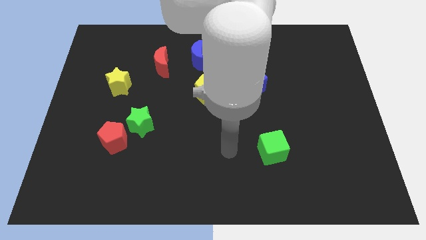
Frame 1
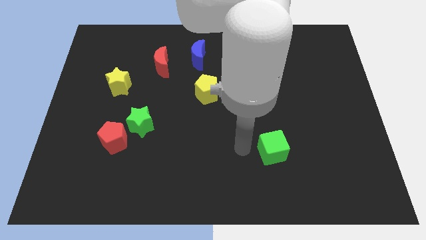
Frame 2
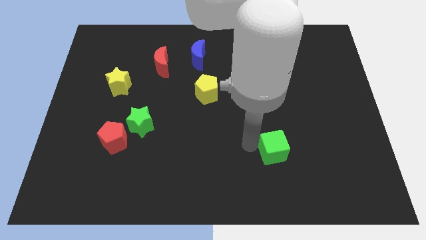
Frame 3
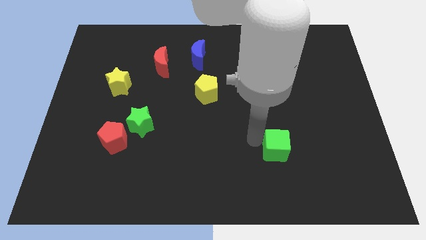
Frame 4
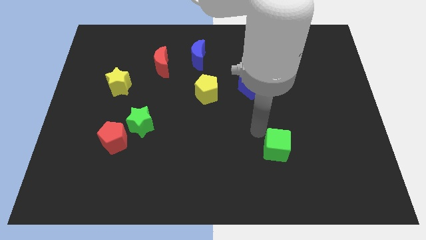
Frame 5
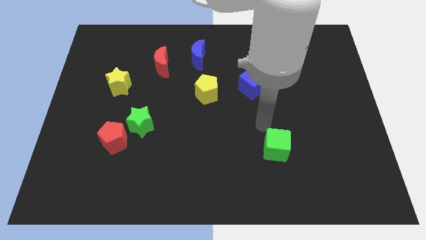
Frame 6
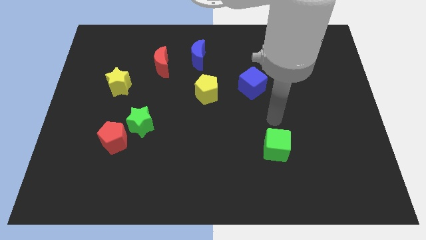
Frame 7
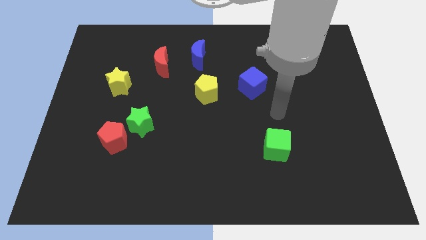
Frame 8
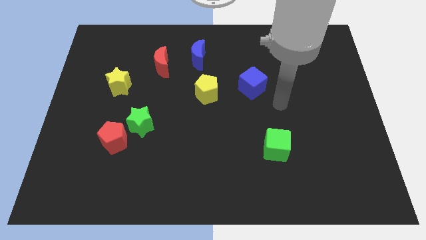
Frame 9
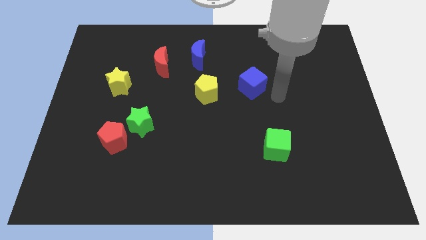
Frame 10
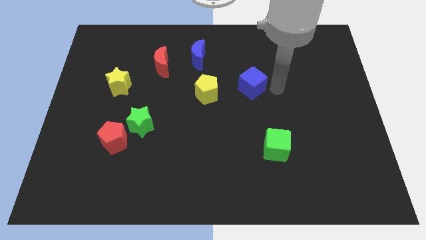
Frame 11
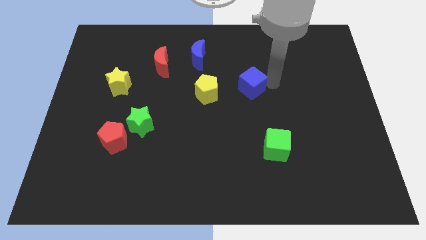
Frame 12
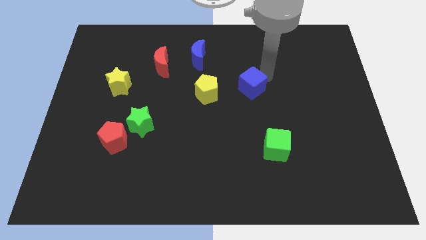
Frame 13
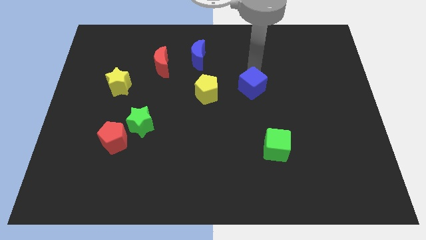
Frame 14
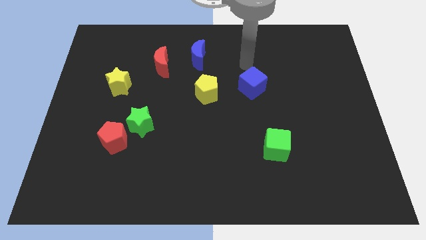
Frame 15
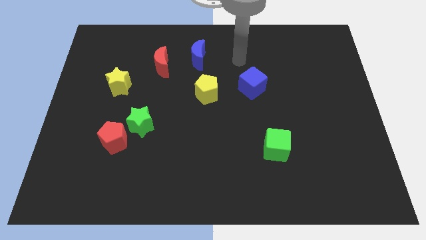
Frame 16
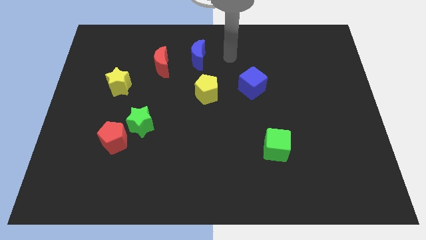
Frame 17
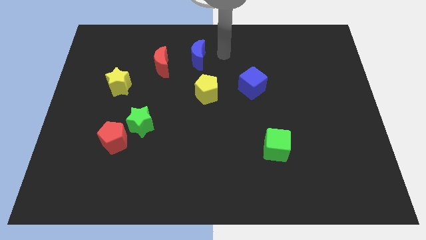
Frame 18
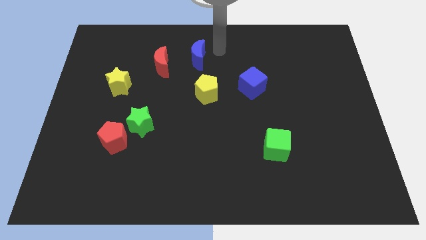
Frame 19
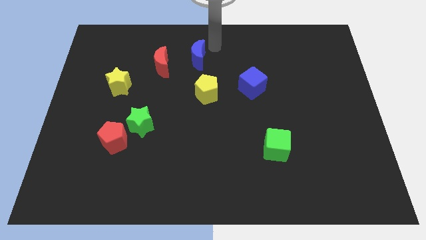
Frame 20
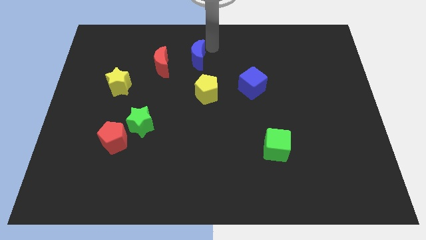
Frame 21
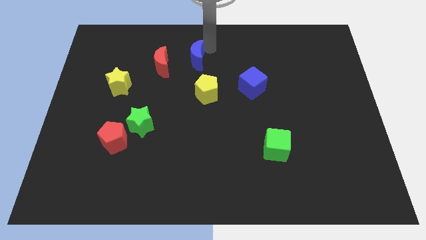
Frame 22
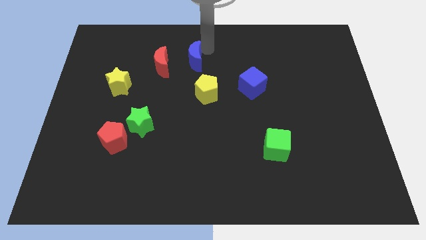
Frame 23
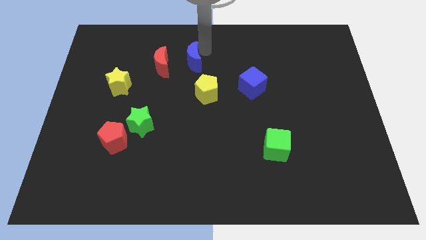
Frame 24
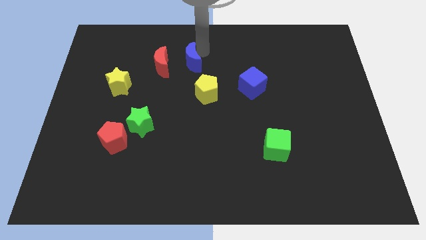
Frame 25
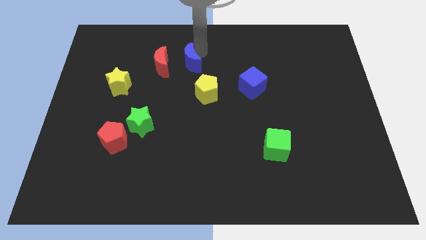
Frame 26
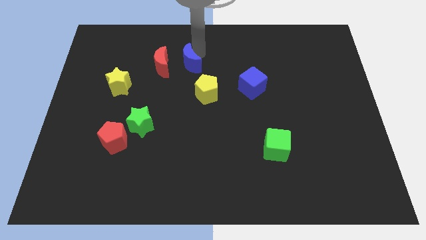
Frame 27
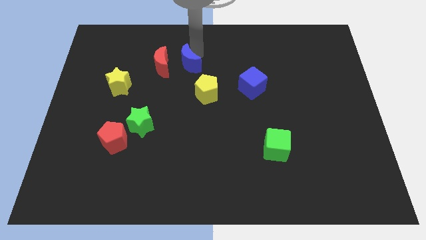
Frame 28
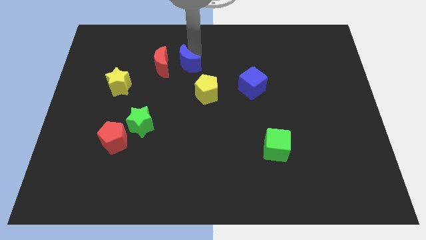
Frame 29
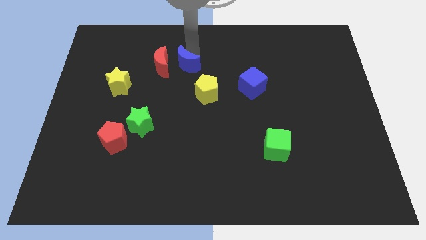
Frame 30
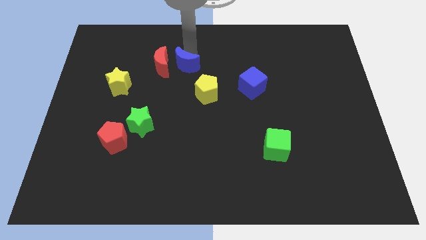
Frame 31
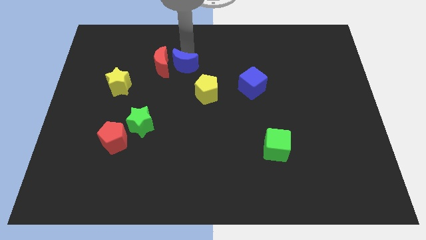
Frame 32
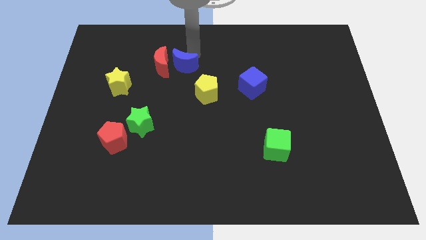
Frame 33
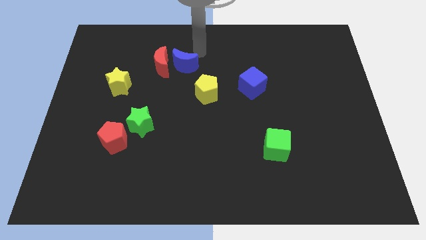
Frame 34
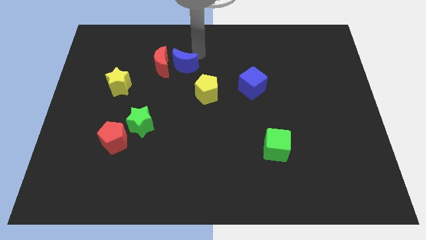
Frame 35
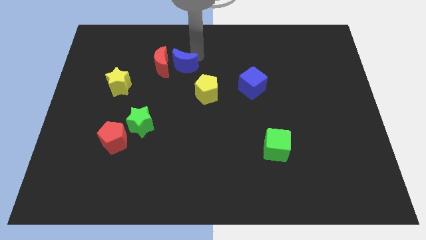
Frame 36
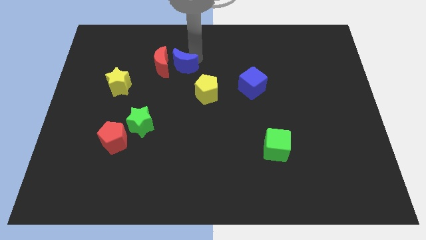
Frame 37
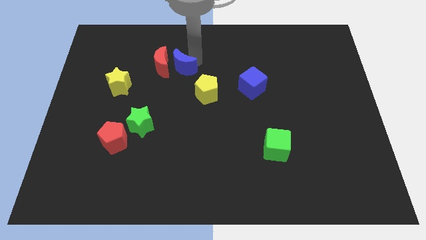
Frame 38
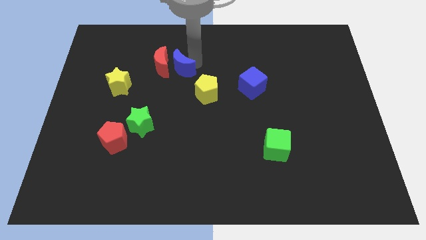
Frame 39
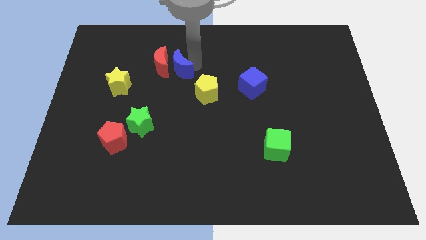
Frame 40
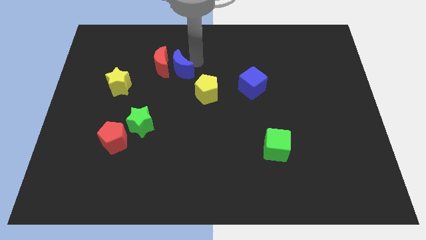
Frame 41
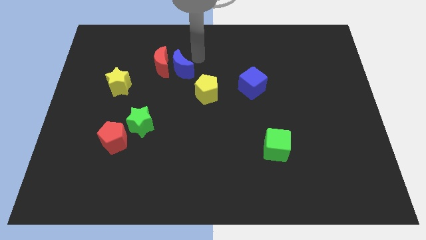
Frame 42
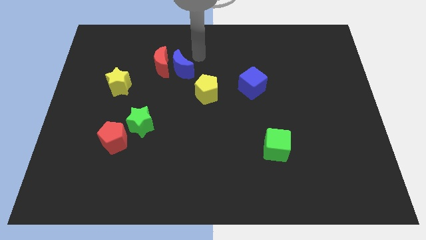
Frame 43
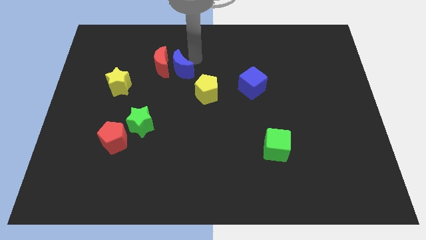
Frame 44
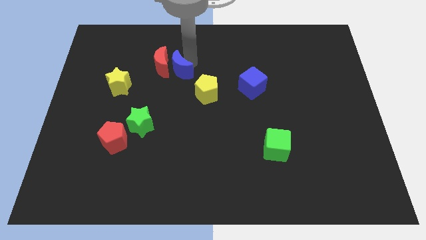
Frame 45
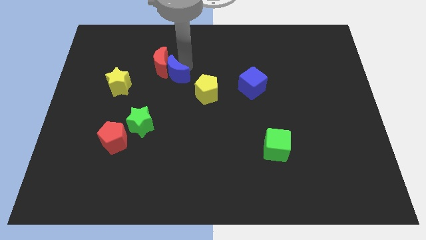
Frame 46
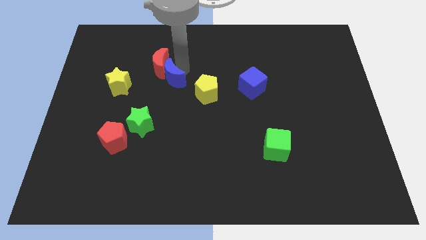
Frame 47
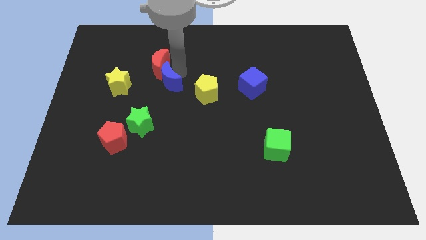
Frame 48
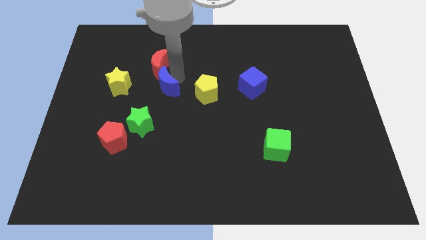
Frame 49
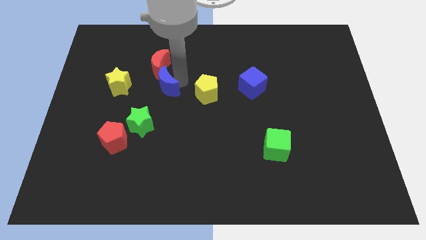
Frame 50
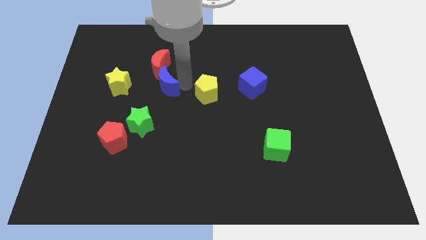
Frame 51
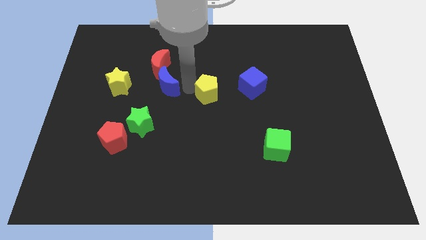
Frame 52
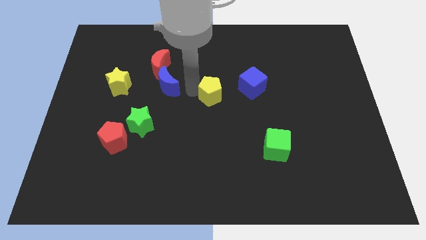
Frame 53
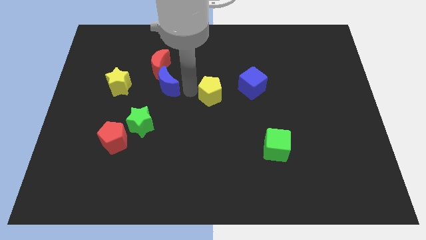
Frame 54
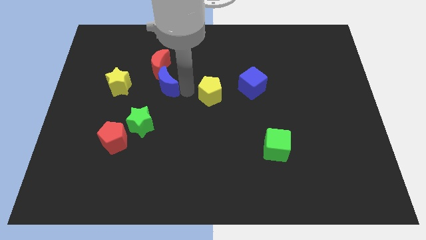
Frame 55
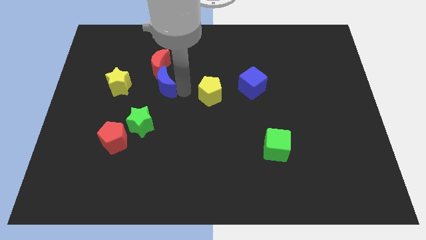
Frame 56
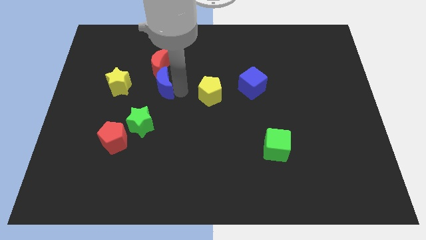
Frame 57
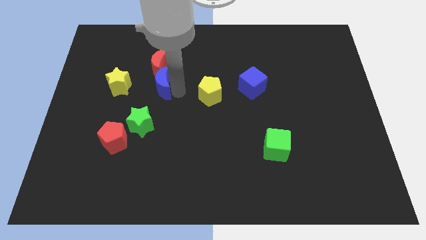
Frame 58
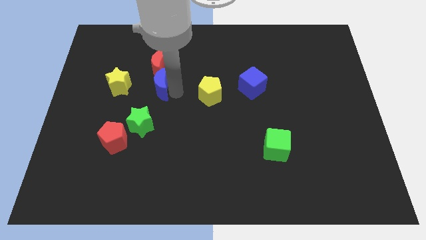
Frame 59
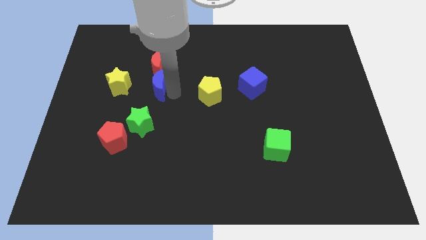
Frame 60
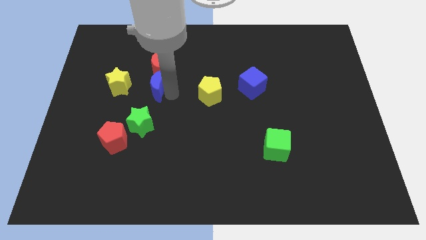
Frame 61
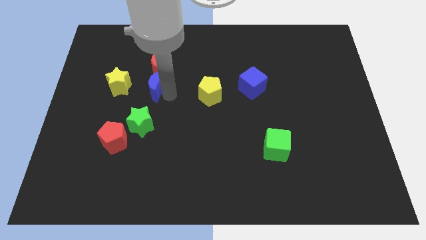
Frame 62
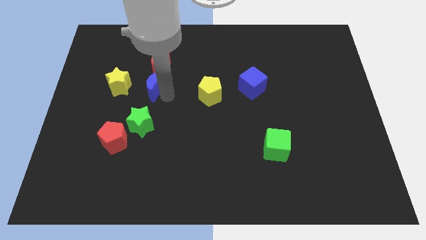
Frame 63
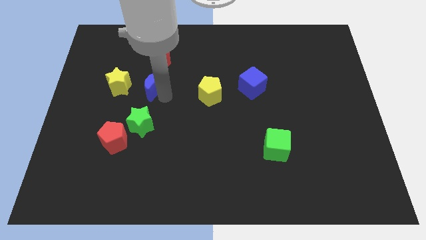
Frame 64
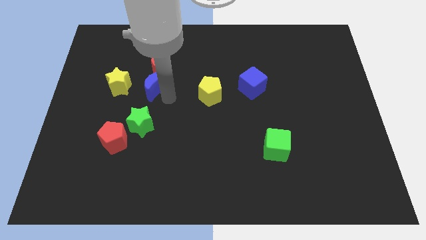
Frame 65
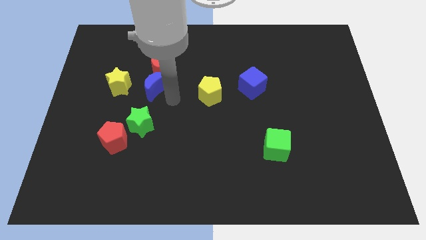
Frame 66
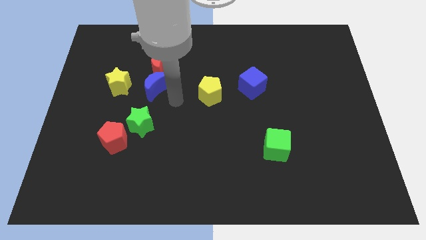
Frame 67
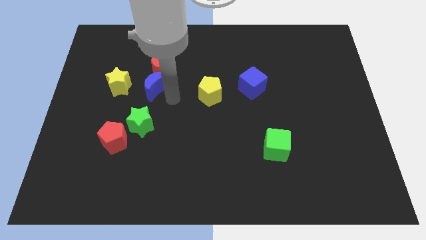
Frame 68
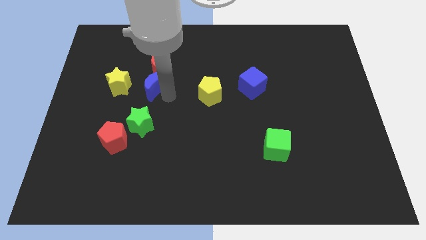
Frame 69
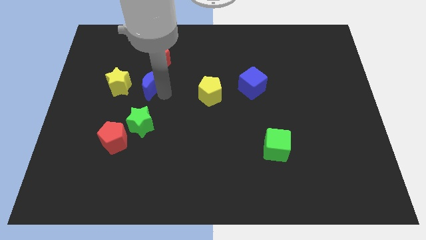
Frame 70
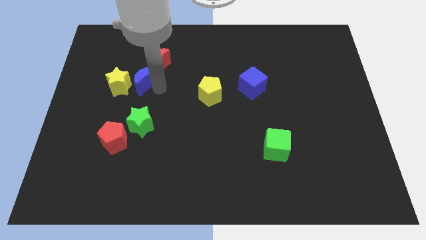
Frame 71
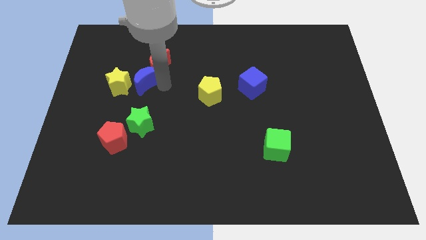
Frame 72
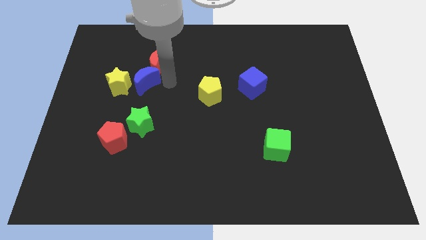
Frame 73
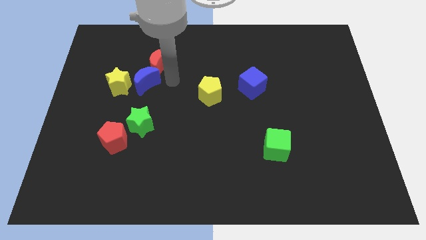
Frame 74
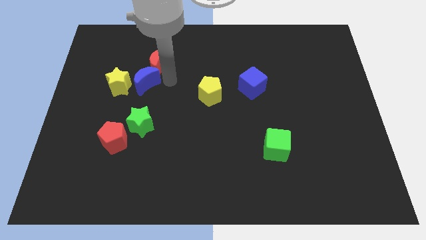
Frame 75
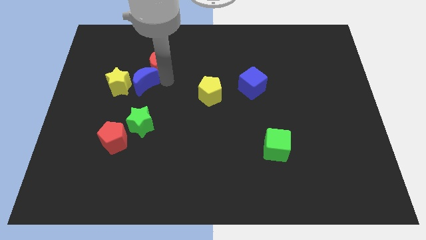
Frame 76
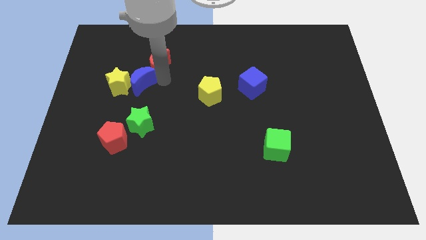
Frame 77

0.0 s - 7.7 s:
put the blue moon next to the yellow star
